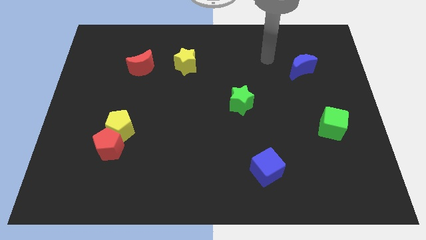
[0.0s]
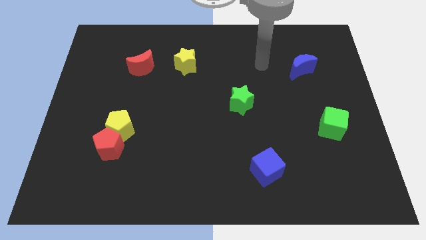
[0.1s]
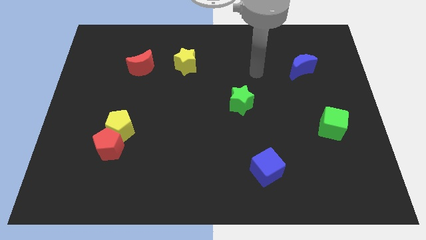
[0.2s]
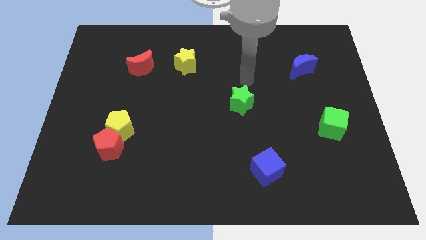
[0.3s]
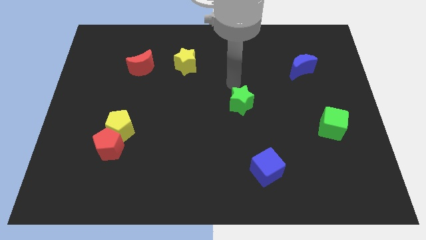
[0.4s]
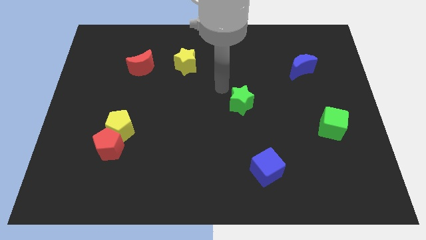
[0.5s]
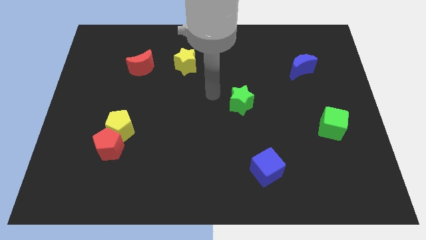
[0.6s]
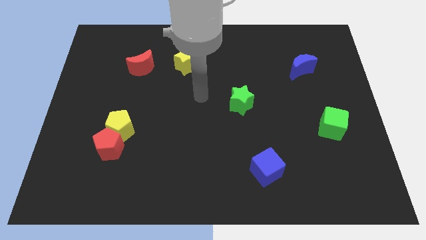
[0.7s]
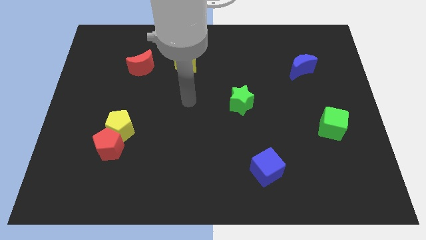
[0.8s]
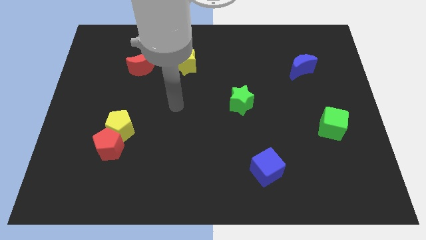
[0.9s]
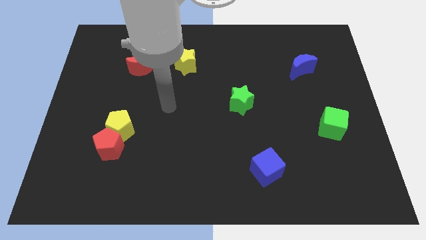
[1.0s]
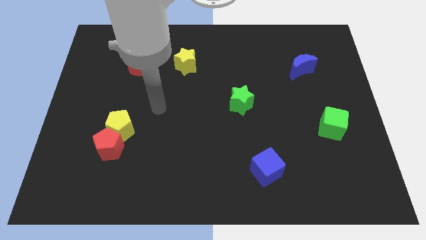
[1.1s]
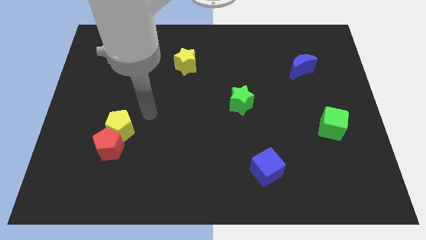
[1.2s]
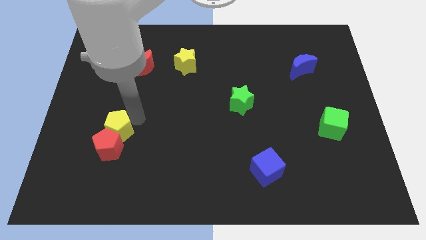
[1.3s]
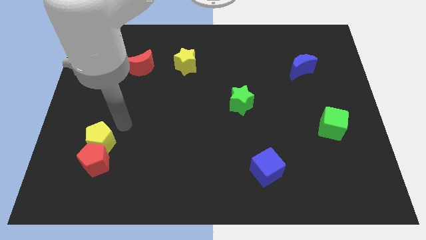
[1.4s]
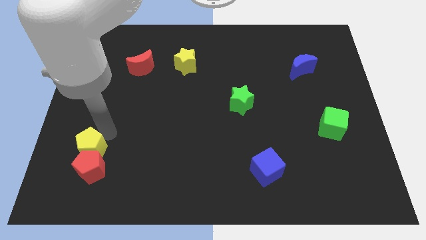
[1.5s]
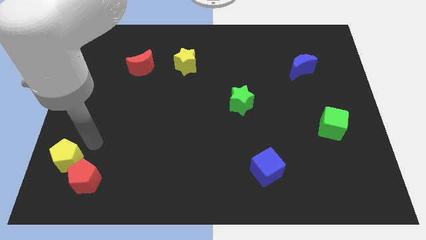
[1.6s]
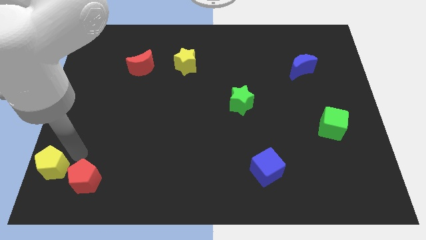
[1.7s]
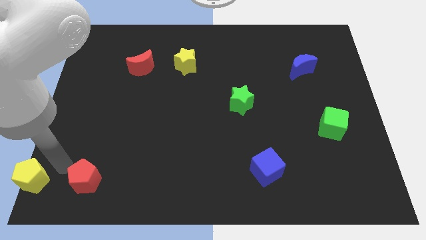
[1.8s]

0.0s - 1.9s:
separate the red pentagon from the yellow pentagon

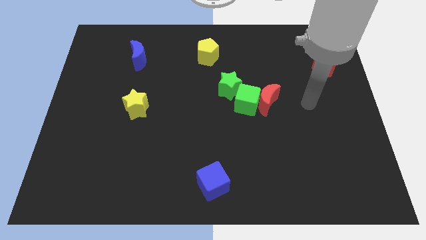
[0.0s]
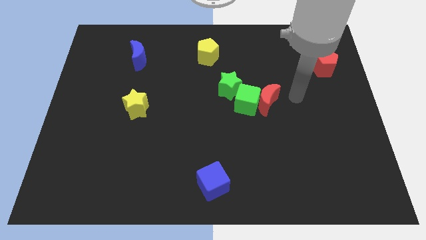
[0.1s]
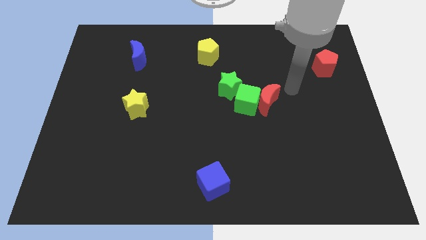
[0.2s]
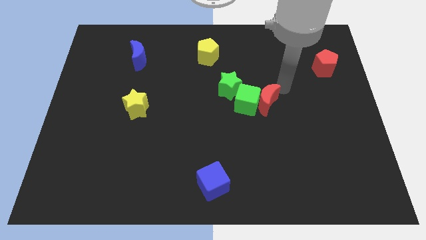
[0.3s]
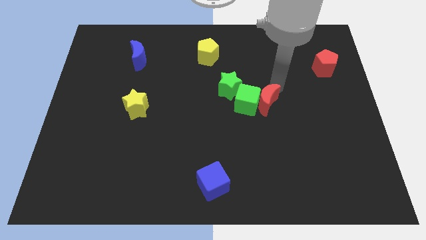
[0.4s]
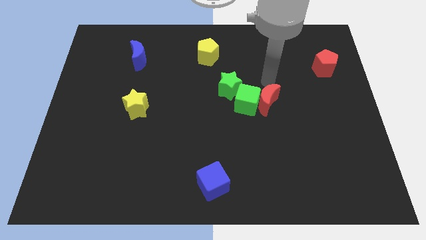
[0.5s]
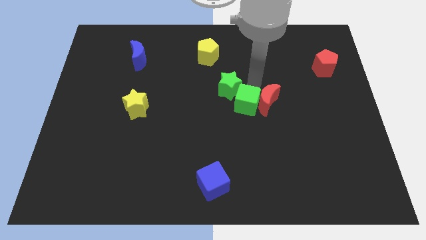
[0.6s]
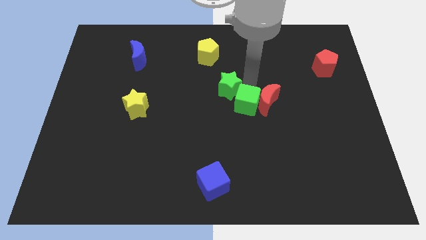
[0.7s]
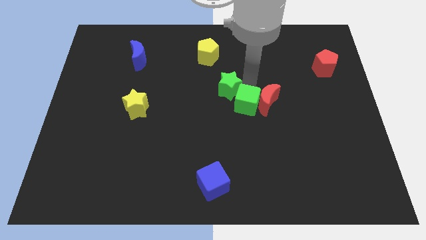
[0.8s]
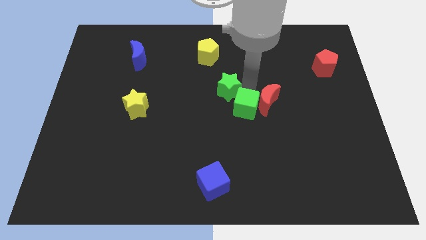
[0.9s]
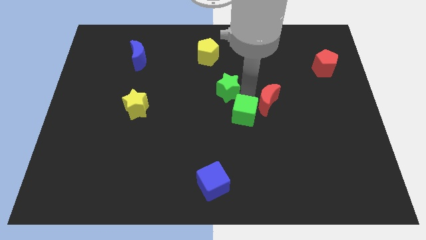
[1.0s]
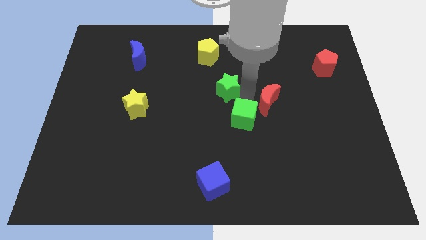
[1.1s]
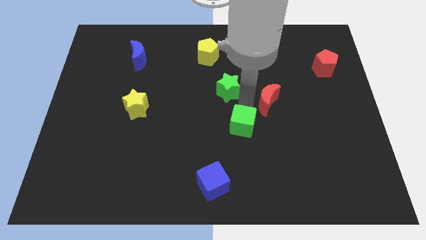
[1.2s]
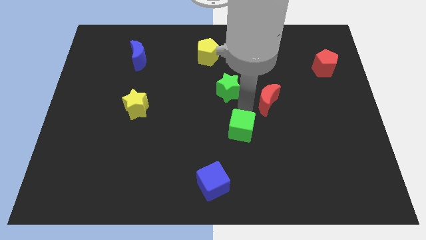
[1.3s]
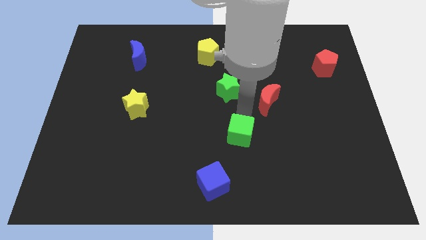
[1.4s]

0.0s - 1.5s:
move the green cube away from the red moon and green star

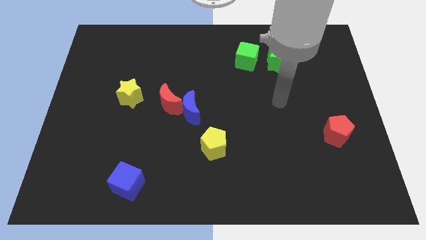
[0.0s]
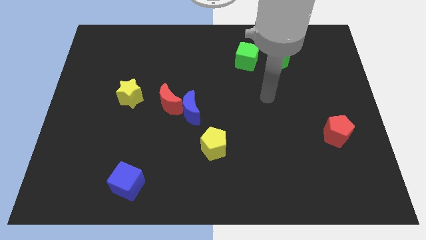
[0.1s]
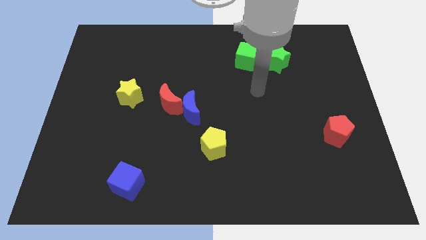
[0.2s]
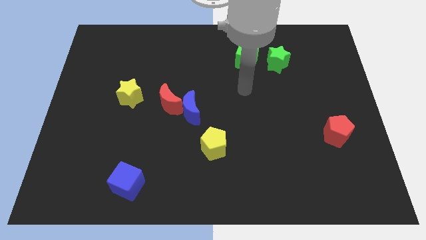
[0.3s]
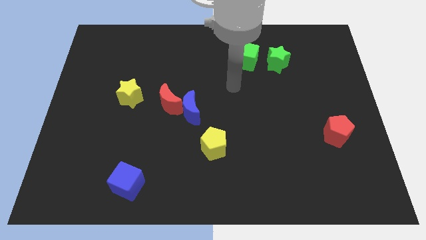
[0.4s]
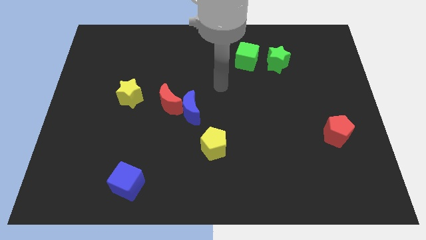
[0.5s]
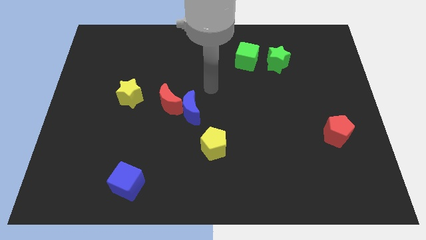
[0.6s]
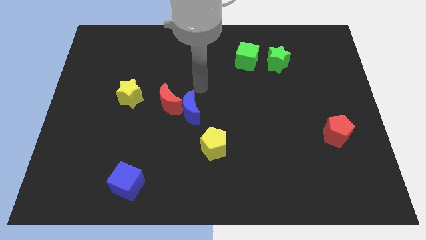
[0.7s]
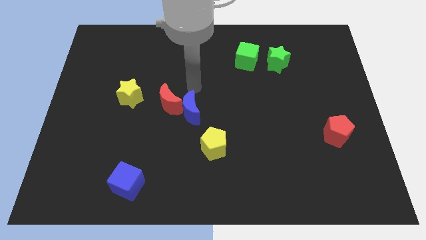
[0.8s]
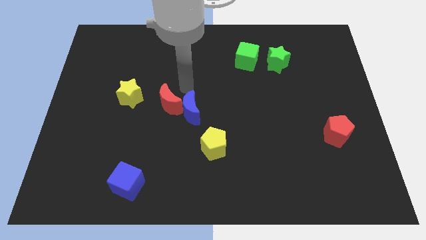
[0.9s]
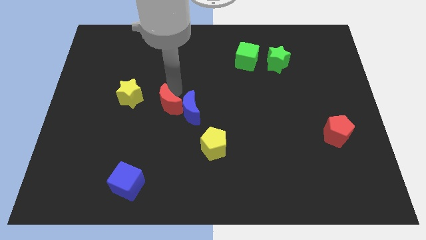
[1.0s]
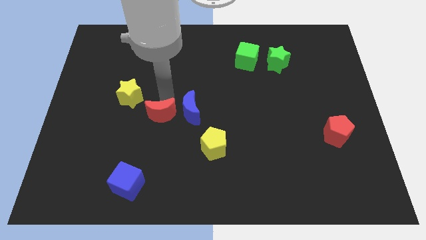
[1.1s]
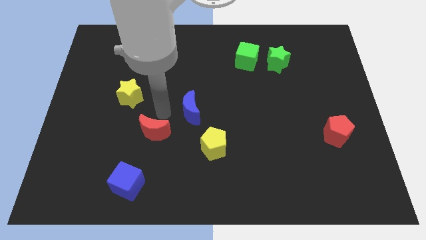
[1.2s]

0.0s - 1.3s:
separate the blue moon from the red moon

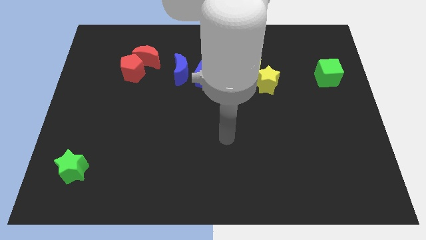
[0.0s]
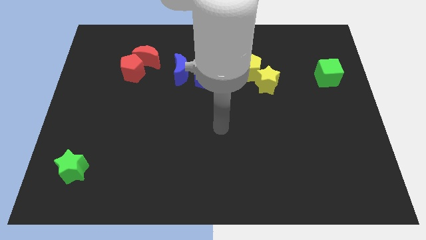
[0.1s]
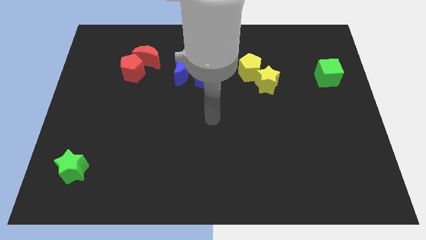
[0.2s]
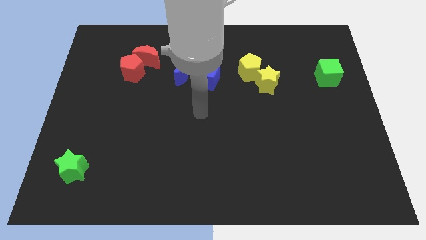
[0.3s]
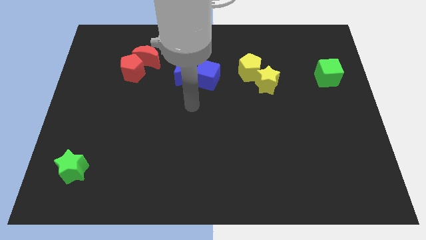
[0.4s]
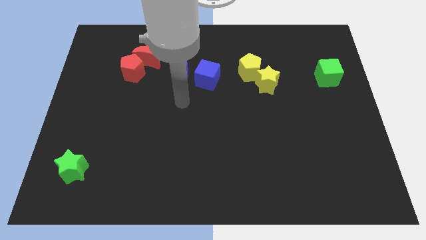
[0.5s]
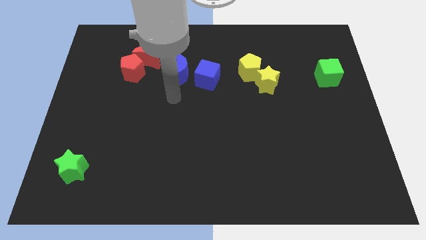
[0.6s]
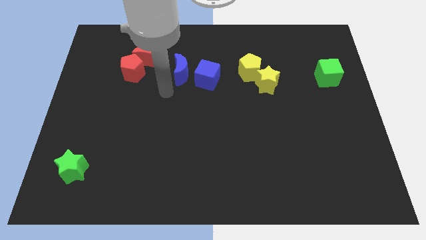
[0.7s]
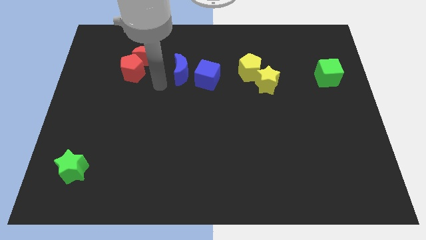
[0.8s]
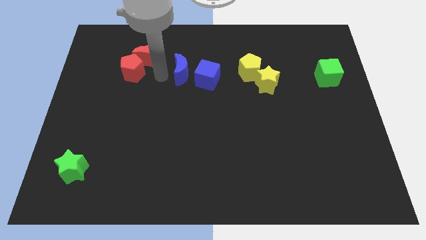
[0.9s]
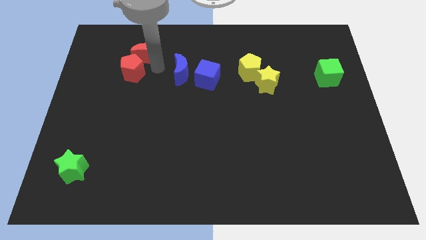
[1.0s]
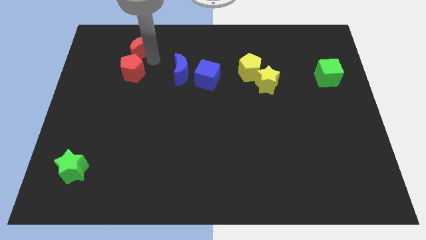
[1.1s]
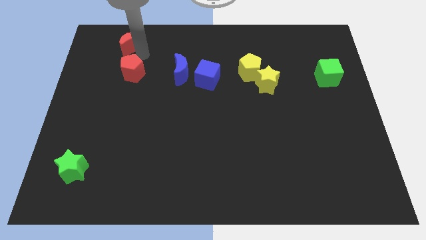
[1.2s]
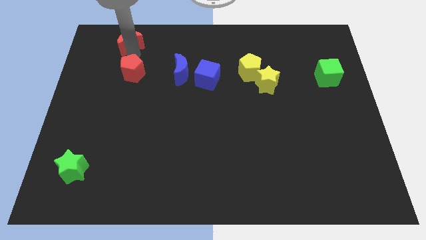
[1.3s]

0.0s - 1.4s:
move the red pentagon away from the red moon

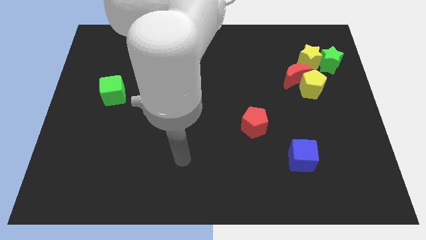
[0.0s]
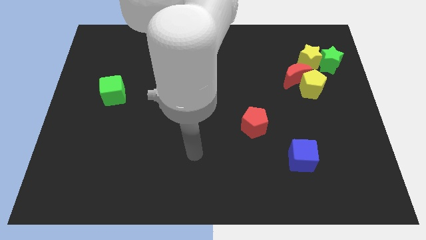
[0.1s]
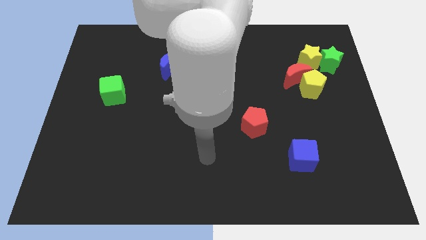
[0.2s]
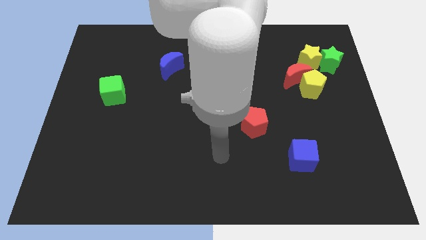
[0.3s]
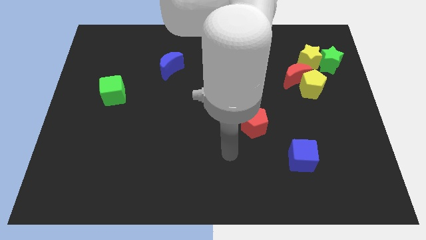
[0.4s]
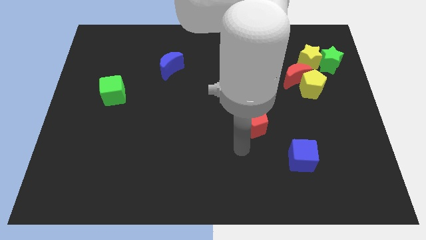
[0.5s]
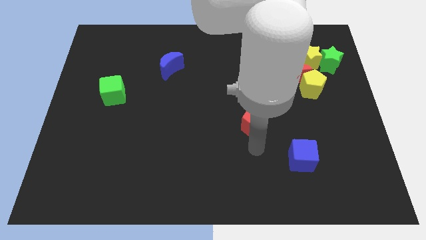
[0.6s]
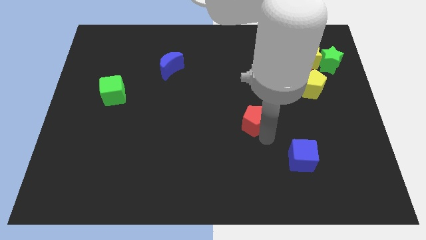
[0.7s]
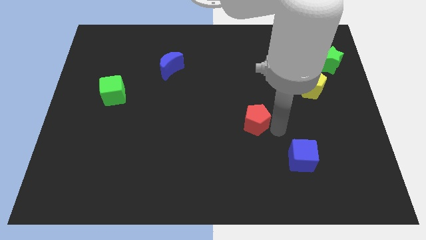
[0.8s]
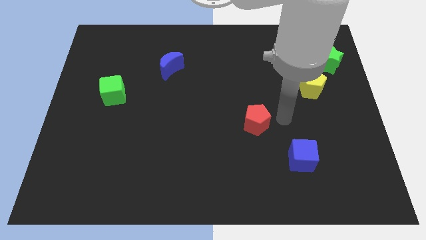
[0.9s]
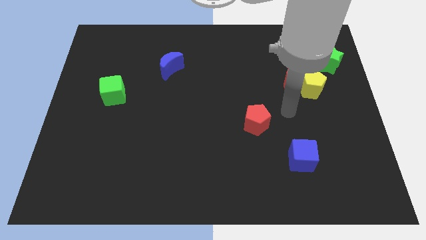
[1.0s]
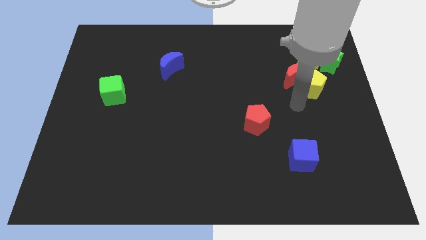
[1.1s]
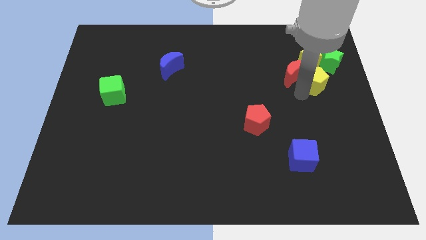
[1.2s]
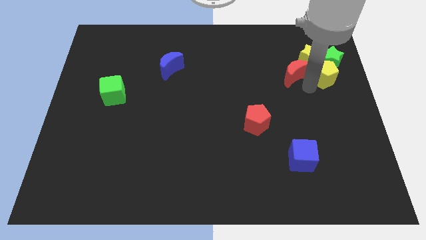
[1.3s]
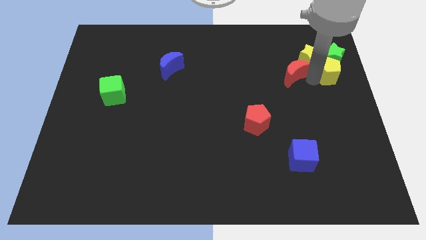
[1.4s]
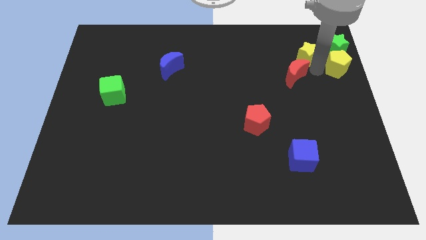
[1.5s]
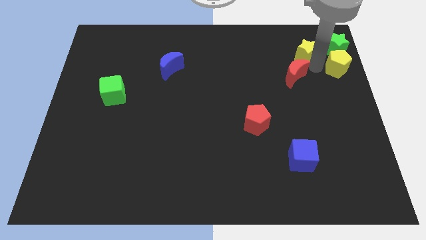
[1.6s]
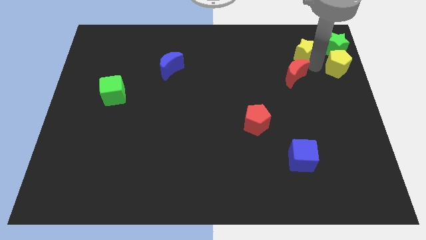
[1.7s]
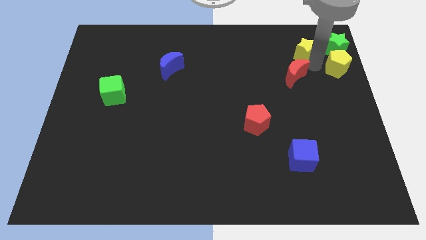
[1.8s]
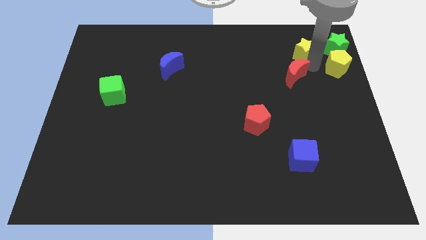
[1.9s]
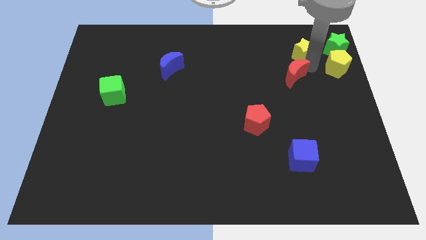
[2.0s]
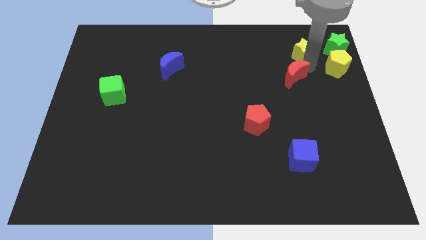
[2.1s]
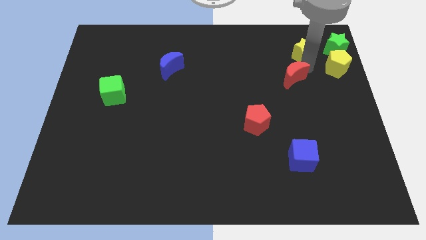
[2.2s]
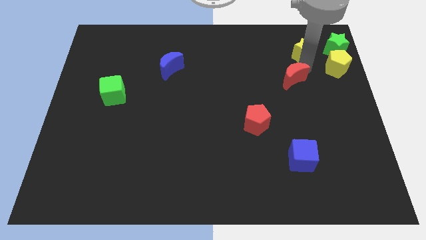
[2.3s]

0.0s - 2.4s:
pull the red moon apart from the yellow pentagon and yellow star

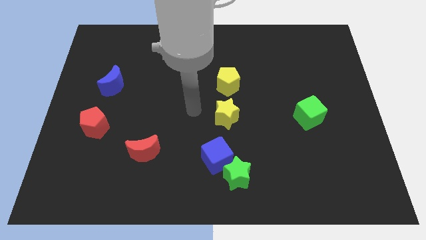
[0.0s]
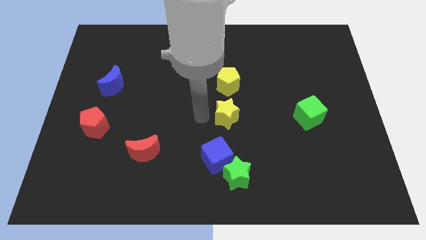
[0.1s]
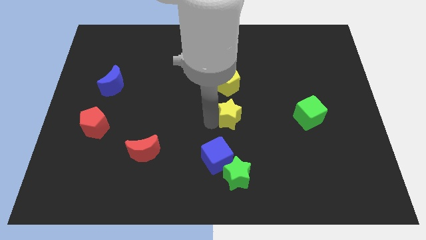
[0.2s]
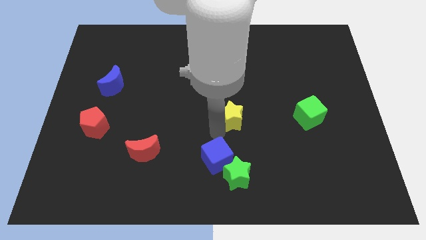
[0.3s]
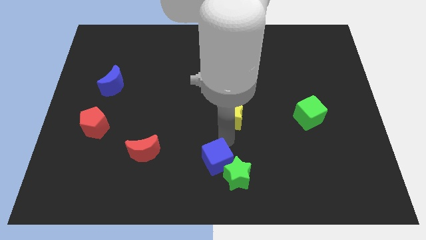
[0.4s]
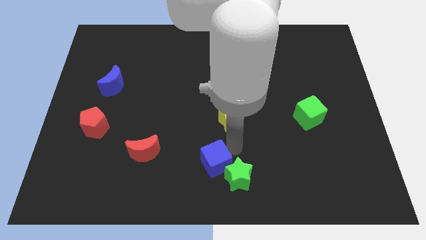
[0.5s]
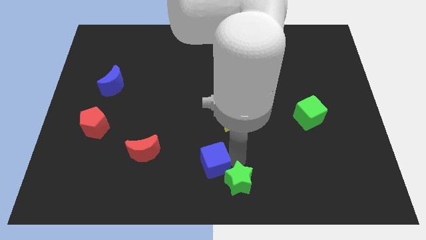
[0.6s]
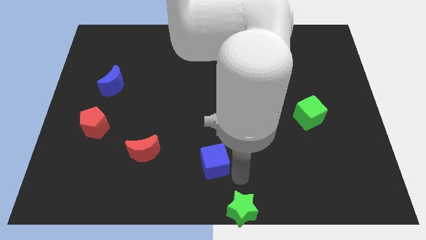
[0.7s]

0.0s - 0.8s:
pull the blue cube apart from the green star
